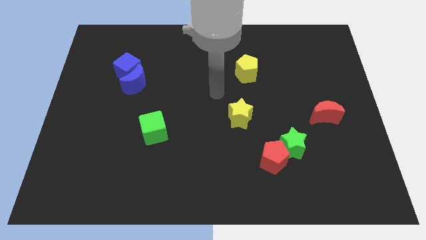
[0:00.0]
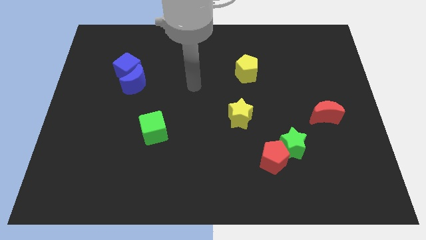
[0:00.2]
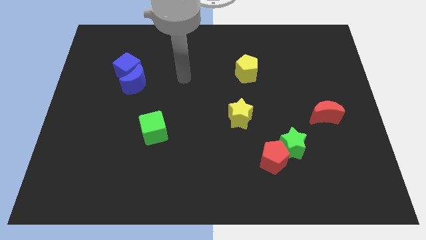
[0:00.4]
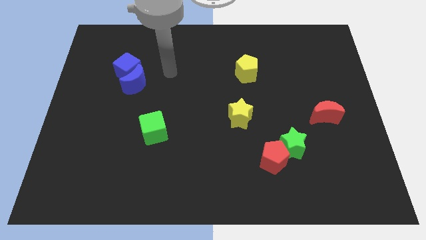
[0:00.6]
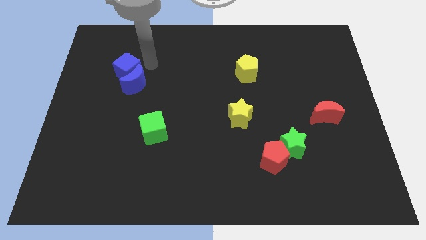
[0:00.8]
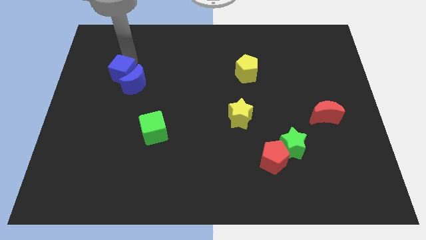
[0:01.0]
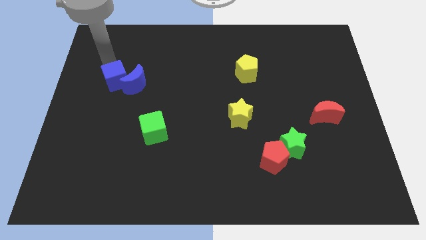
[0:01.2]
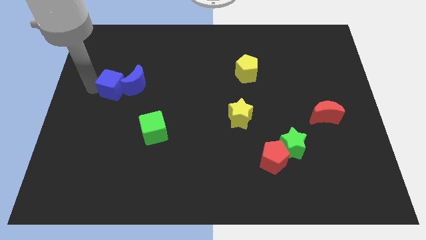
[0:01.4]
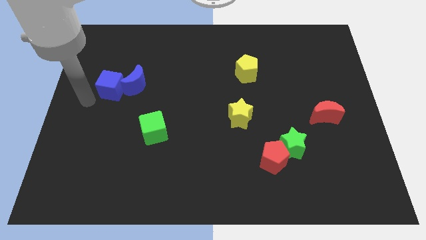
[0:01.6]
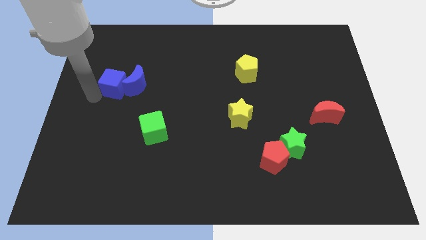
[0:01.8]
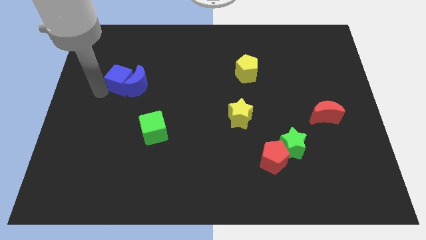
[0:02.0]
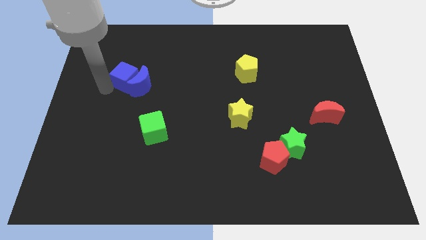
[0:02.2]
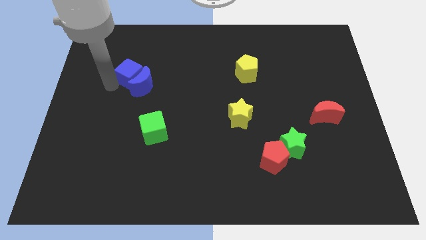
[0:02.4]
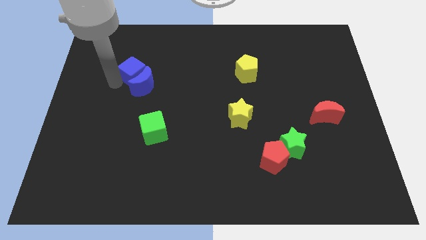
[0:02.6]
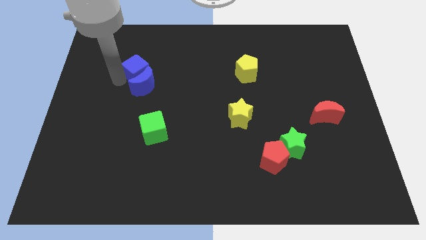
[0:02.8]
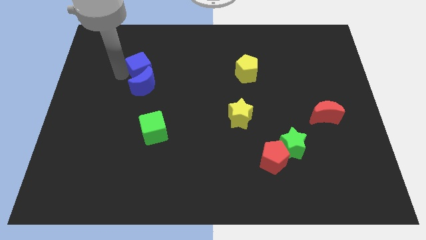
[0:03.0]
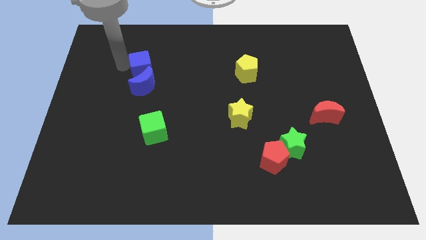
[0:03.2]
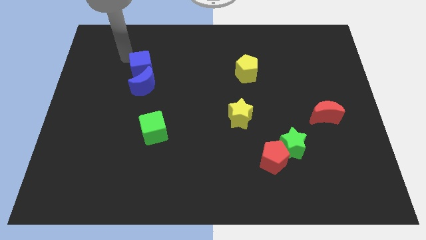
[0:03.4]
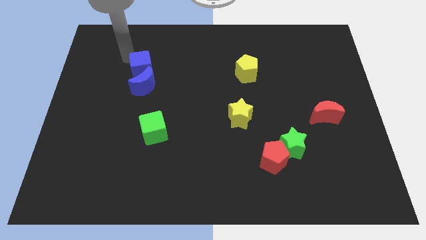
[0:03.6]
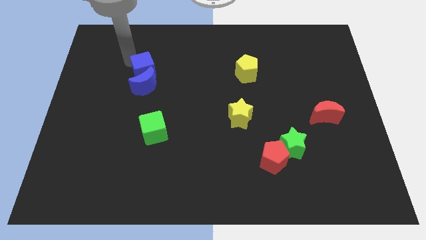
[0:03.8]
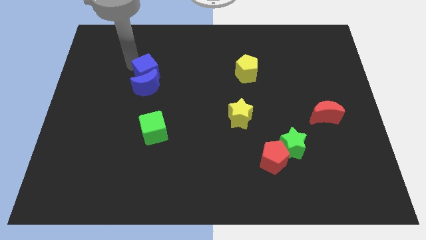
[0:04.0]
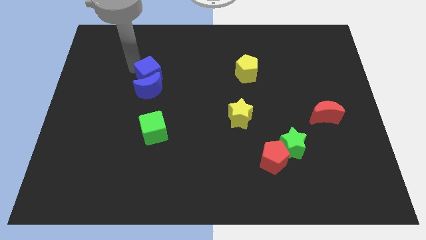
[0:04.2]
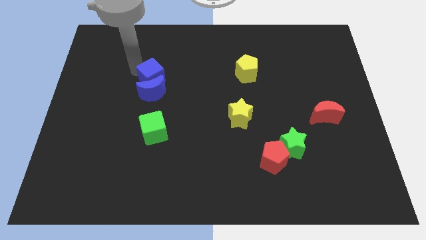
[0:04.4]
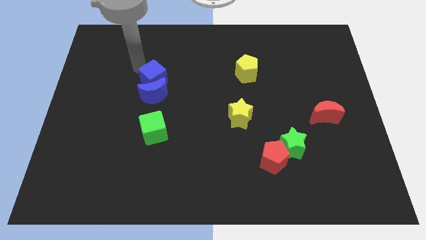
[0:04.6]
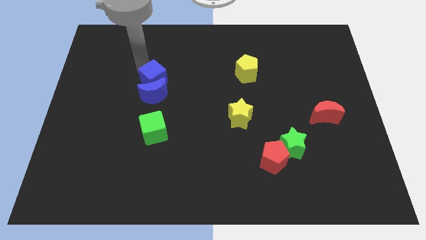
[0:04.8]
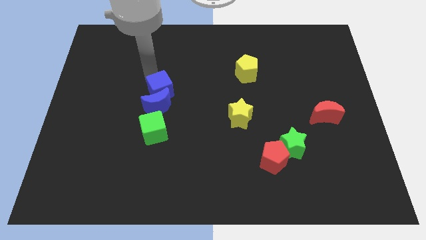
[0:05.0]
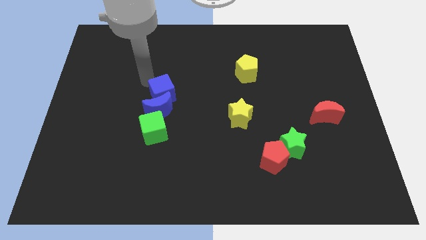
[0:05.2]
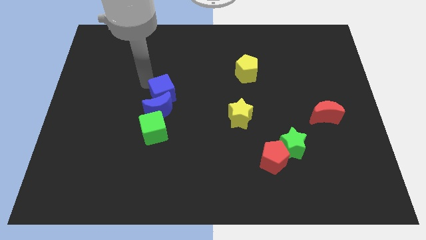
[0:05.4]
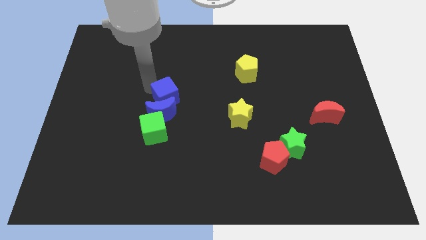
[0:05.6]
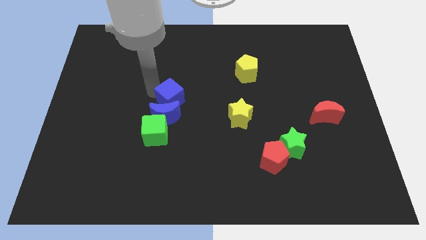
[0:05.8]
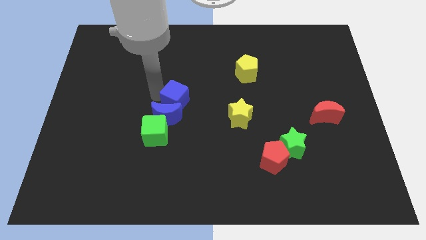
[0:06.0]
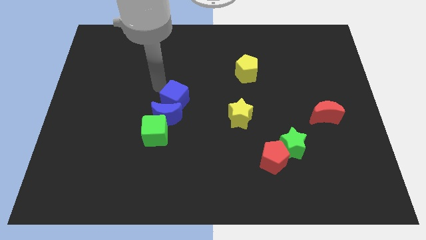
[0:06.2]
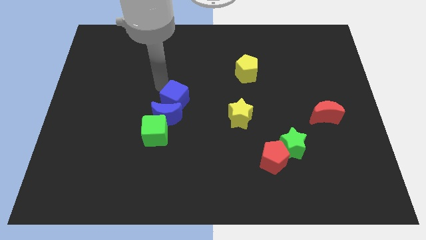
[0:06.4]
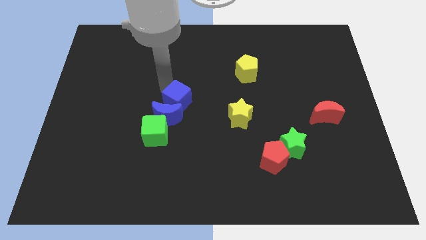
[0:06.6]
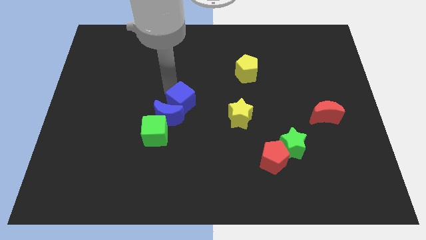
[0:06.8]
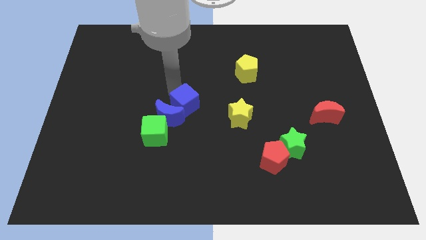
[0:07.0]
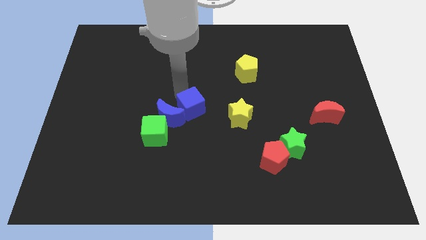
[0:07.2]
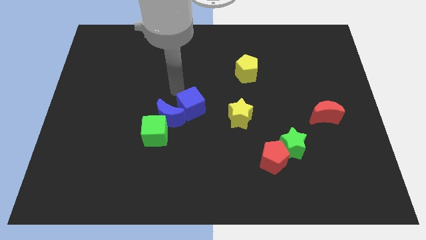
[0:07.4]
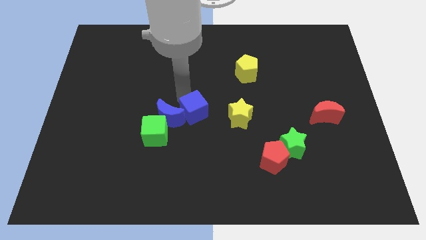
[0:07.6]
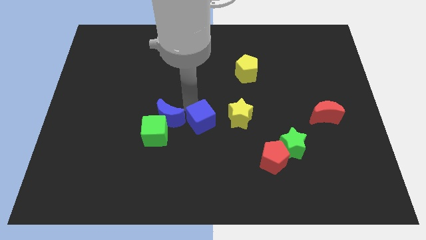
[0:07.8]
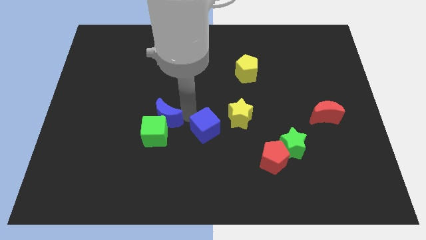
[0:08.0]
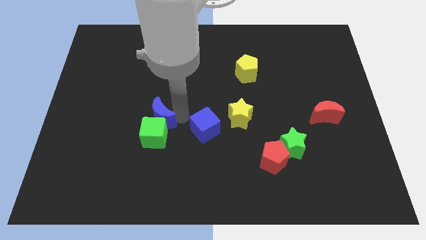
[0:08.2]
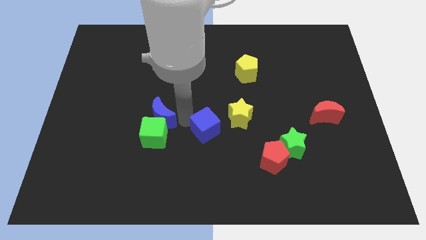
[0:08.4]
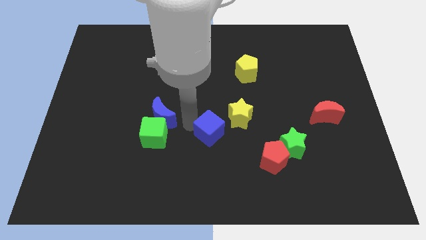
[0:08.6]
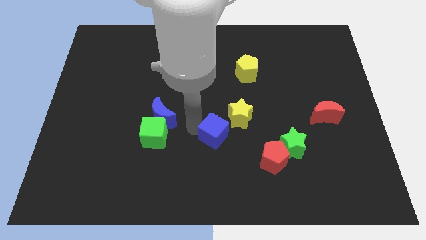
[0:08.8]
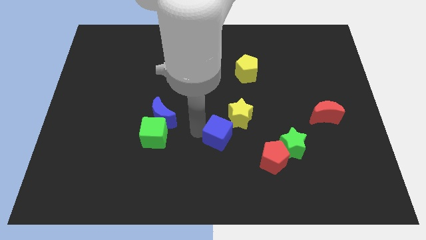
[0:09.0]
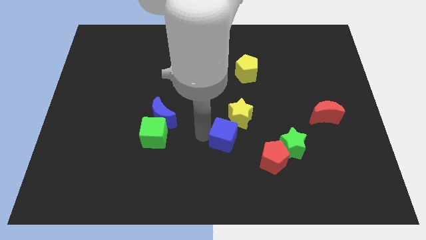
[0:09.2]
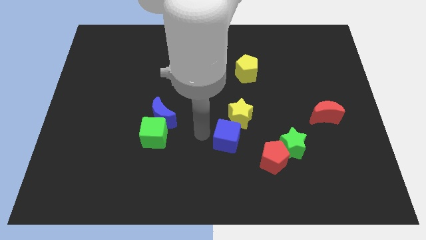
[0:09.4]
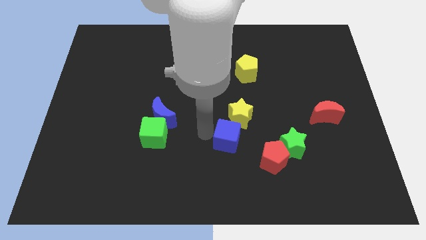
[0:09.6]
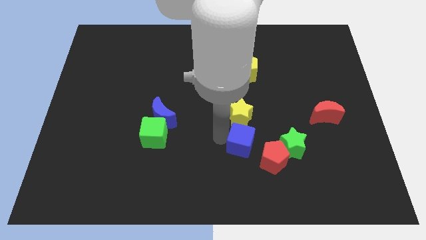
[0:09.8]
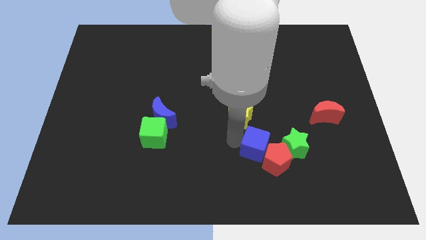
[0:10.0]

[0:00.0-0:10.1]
put the blue cube next to the red pentagon

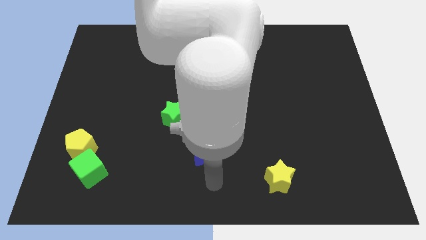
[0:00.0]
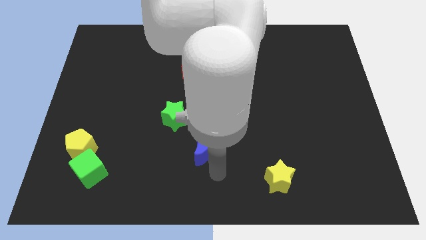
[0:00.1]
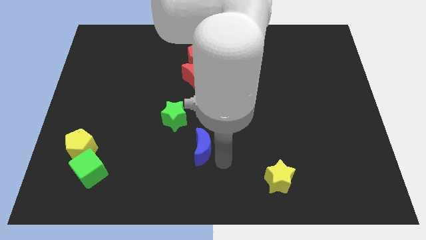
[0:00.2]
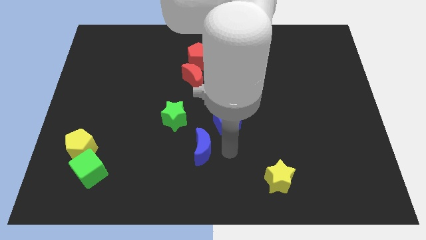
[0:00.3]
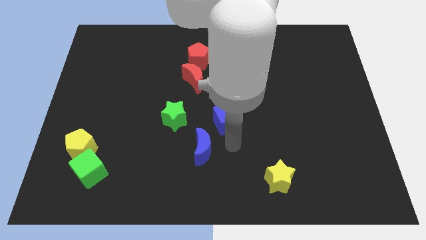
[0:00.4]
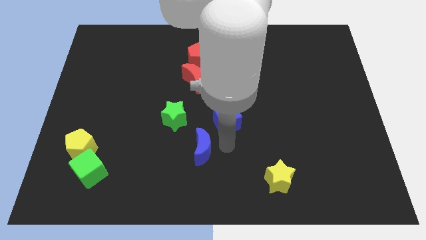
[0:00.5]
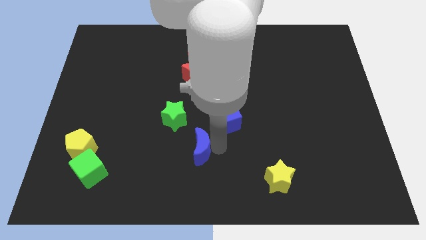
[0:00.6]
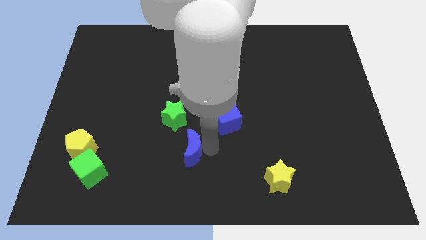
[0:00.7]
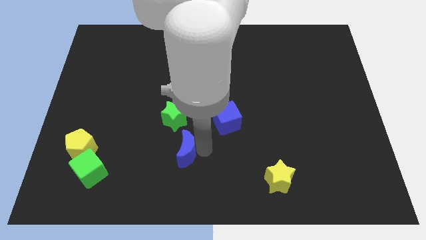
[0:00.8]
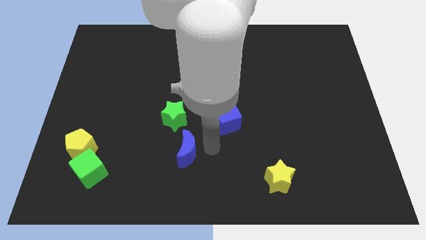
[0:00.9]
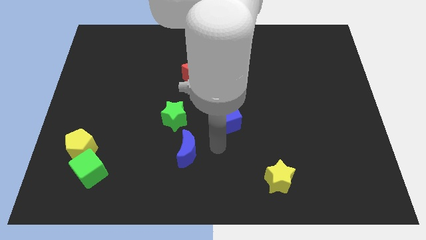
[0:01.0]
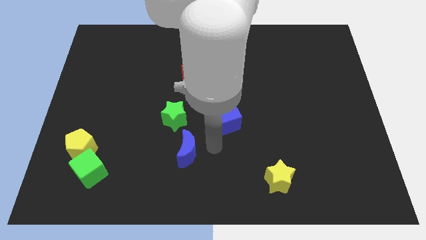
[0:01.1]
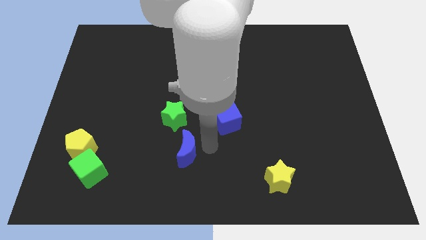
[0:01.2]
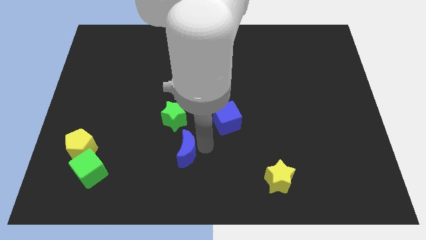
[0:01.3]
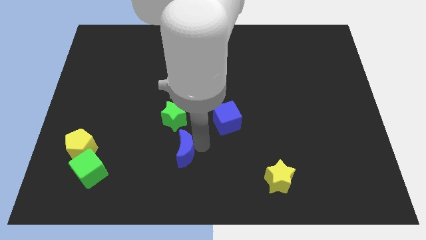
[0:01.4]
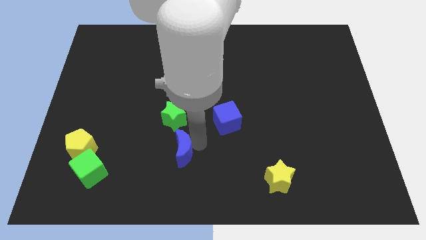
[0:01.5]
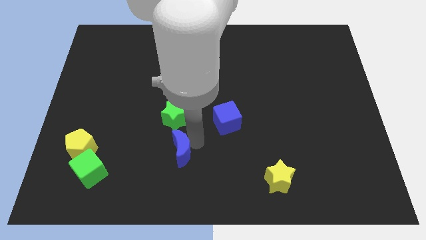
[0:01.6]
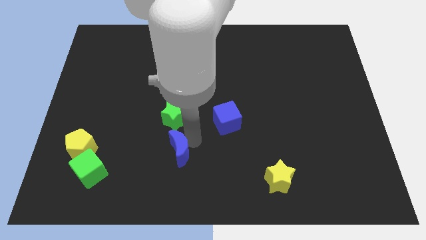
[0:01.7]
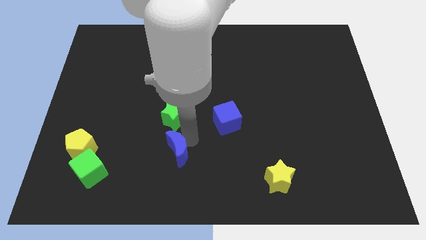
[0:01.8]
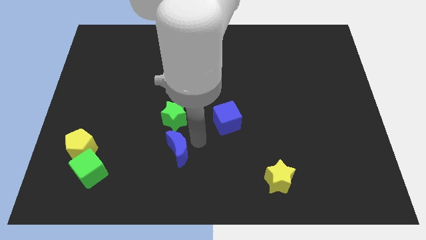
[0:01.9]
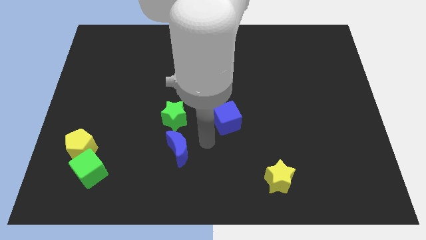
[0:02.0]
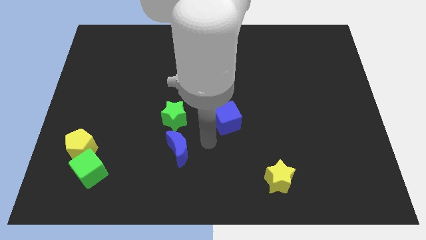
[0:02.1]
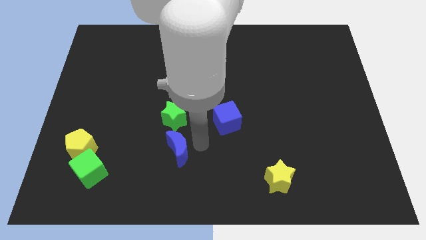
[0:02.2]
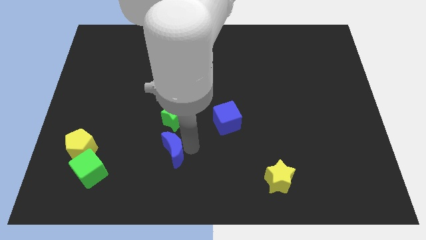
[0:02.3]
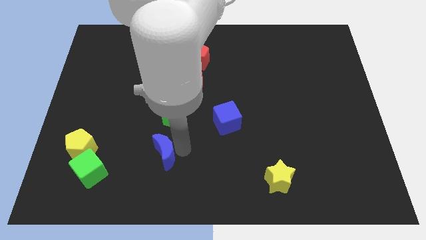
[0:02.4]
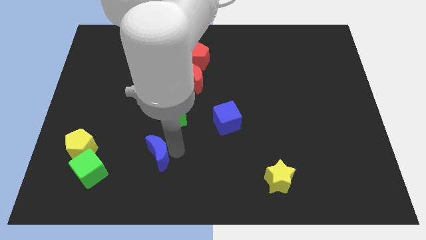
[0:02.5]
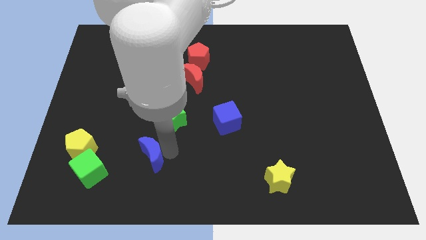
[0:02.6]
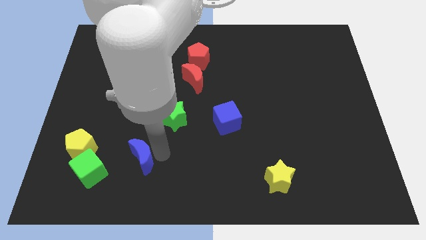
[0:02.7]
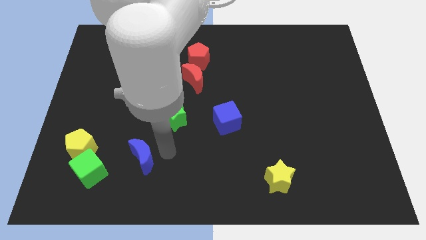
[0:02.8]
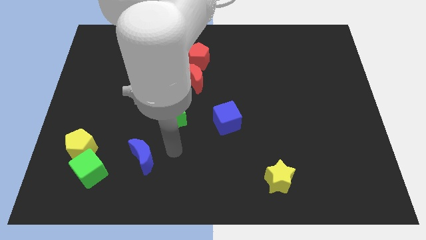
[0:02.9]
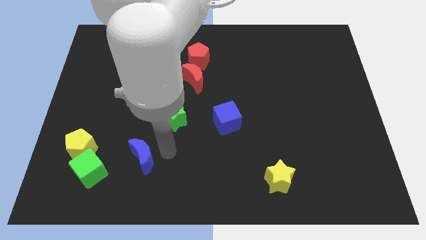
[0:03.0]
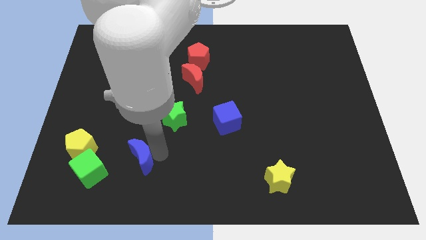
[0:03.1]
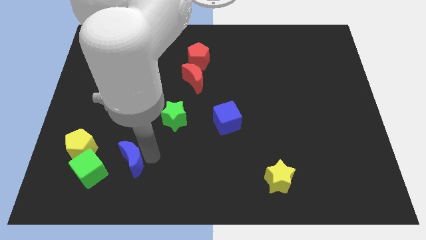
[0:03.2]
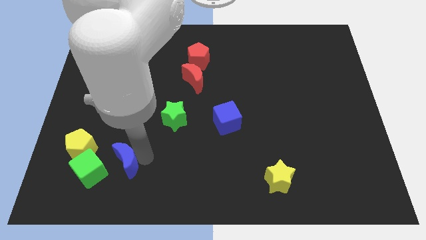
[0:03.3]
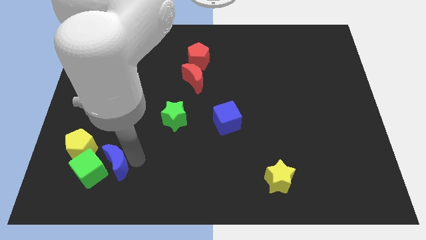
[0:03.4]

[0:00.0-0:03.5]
slide the blue moon close to the green cube
